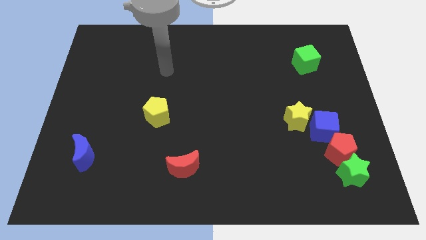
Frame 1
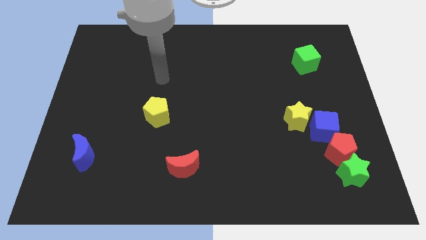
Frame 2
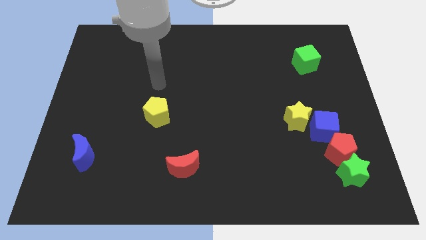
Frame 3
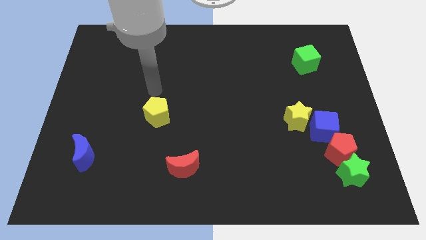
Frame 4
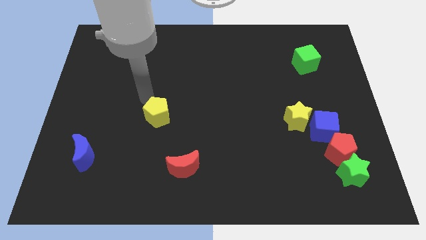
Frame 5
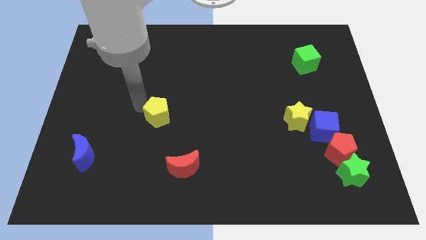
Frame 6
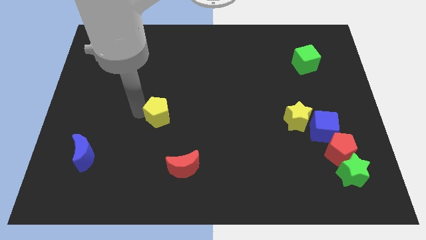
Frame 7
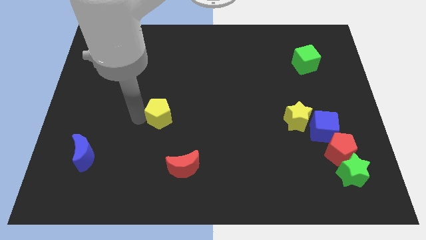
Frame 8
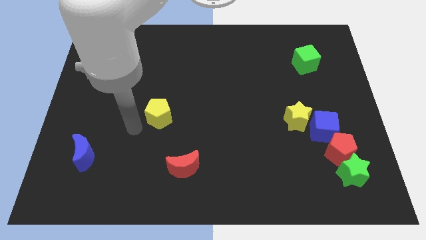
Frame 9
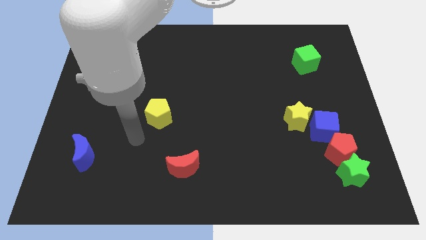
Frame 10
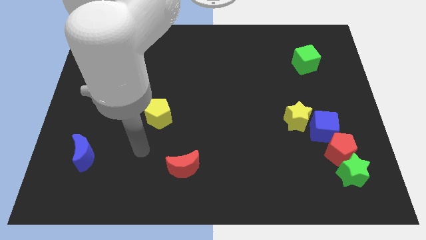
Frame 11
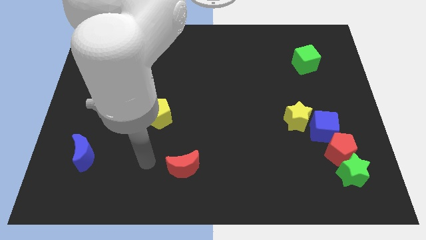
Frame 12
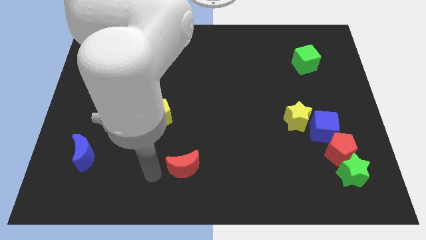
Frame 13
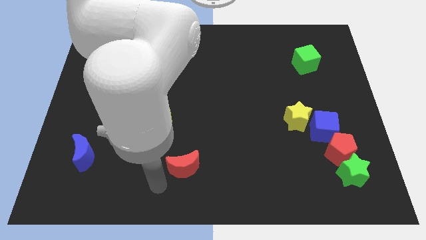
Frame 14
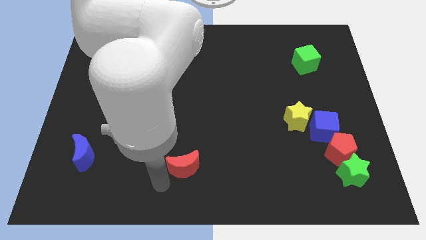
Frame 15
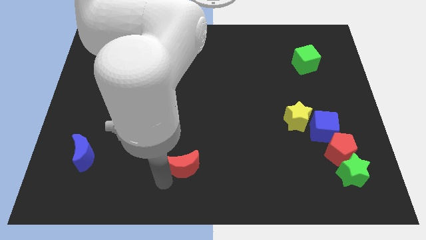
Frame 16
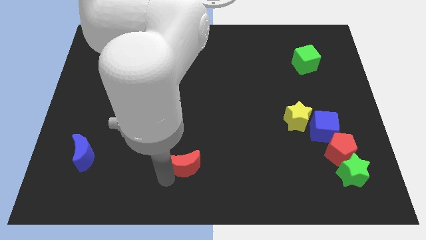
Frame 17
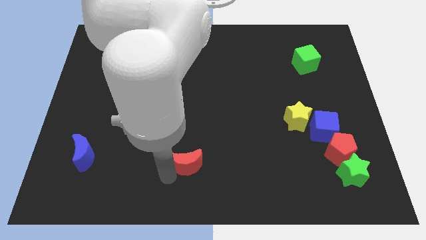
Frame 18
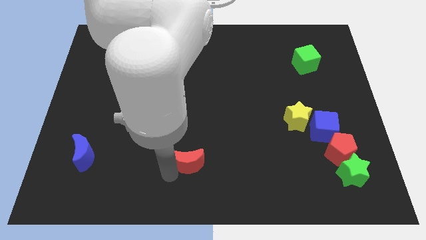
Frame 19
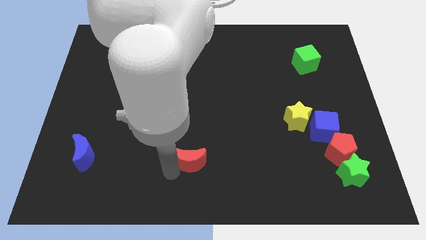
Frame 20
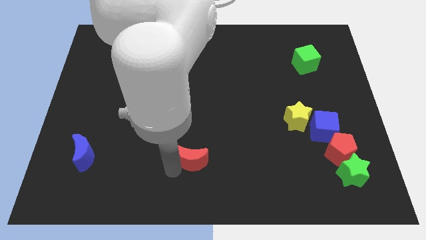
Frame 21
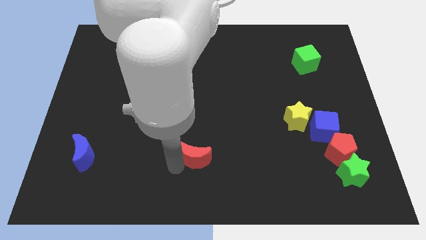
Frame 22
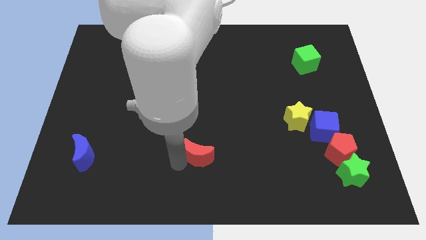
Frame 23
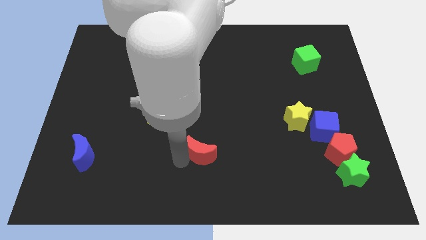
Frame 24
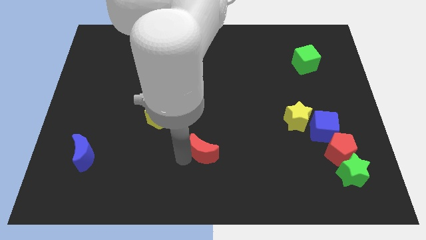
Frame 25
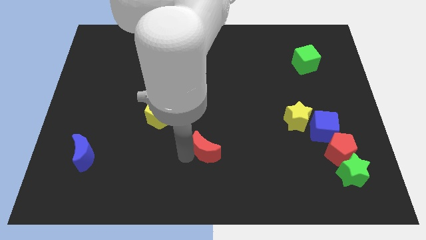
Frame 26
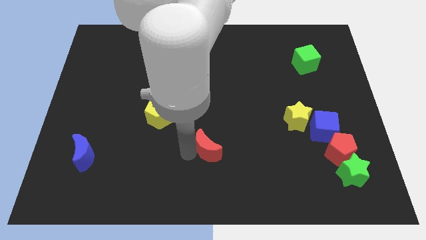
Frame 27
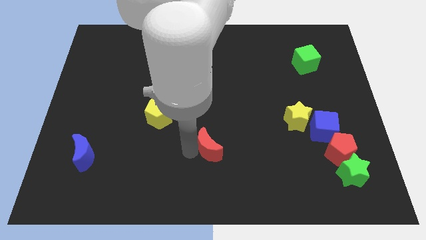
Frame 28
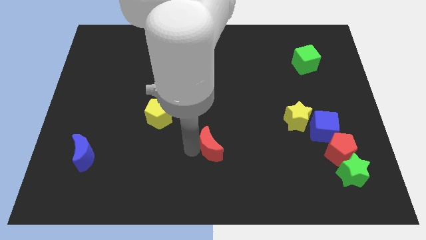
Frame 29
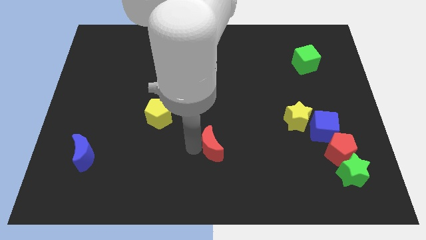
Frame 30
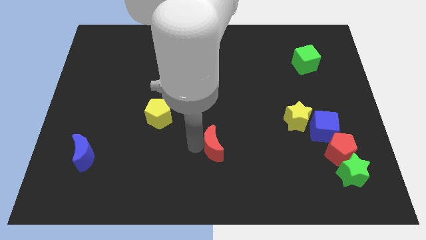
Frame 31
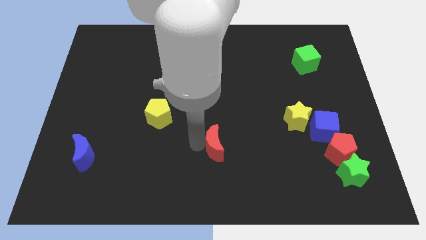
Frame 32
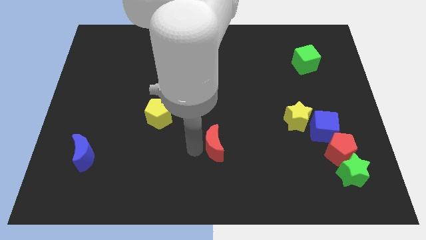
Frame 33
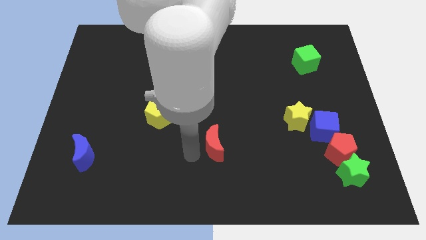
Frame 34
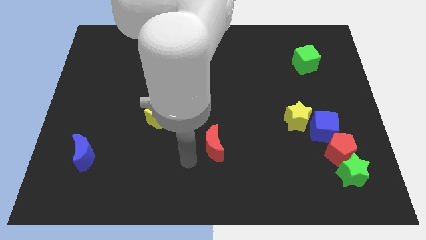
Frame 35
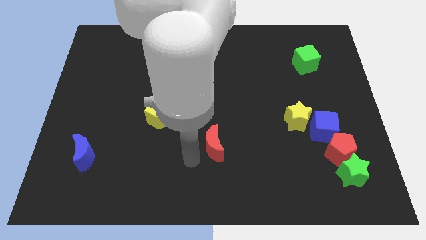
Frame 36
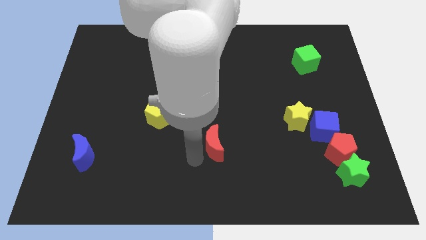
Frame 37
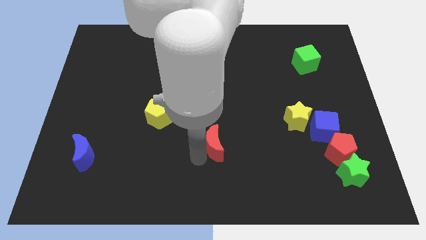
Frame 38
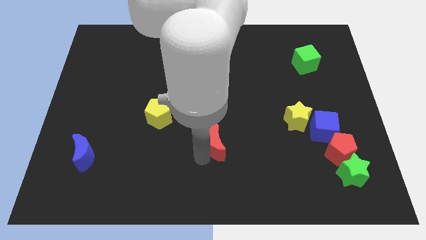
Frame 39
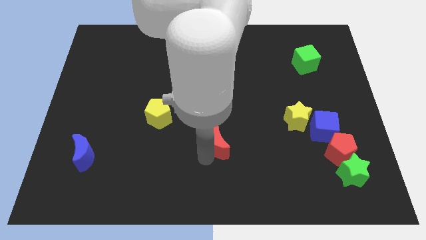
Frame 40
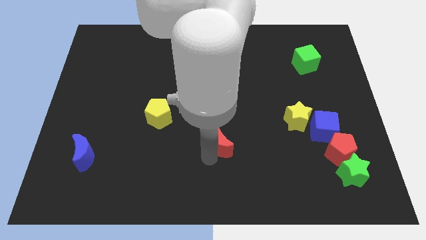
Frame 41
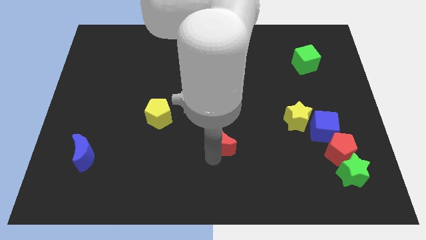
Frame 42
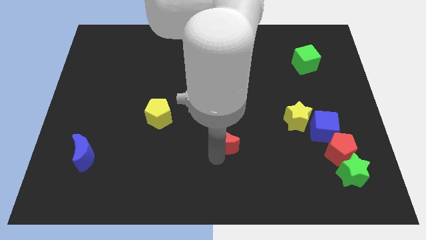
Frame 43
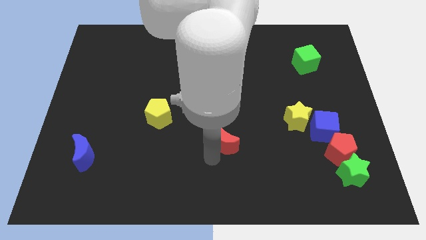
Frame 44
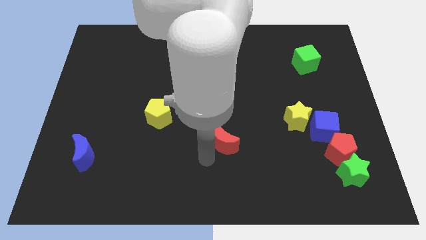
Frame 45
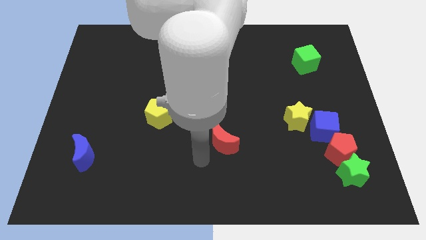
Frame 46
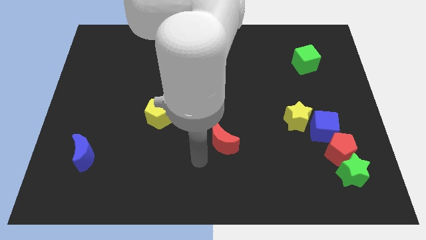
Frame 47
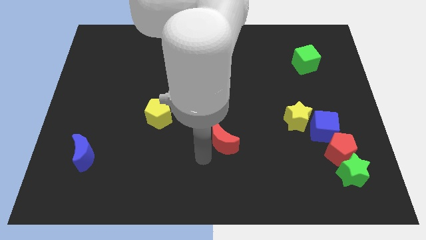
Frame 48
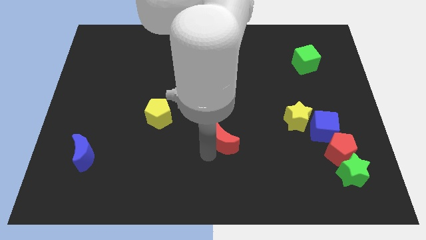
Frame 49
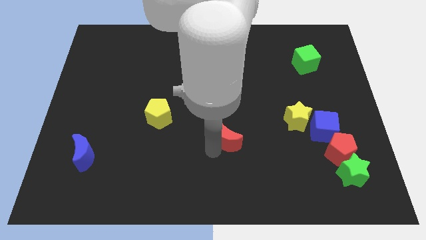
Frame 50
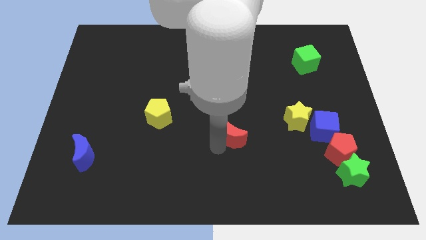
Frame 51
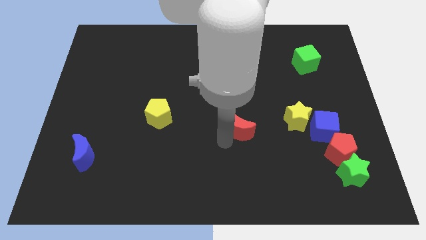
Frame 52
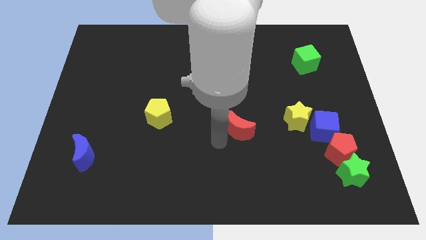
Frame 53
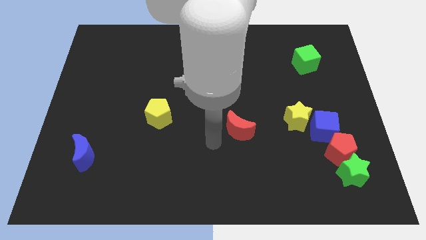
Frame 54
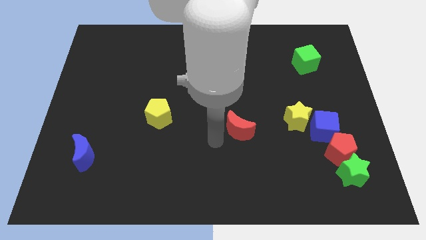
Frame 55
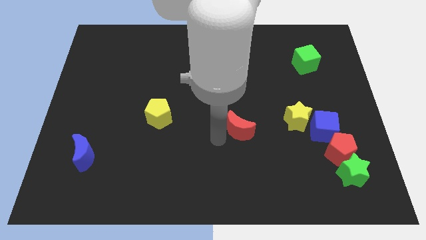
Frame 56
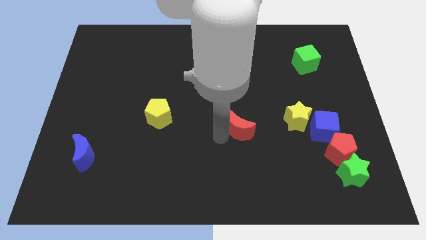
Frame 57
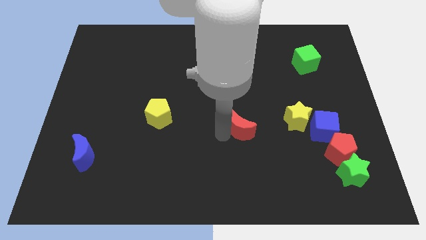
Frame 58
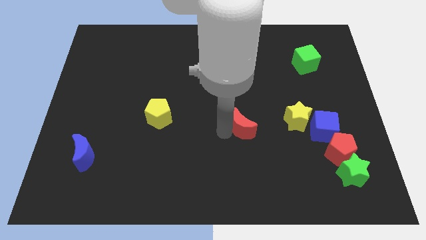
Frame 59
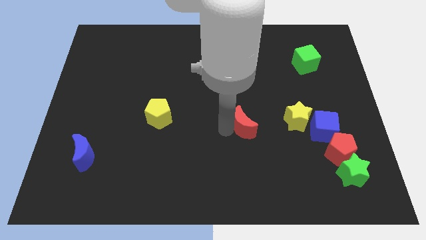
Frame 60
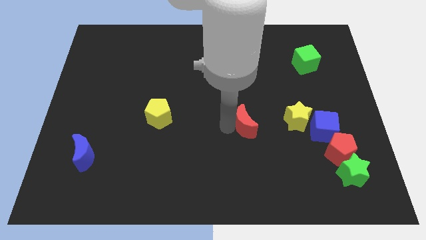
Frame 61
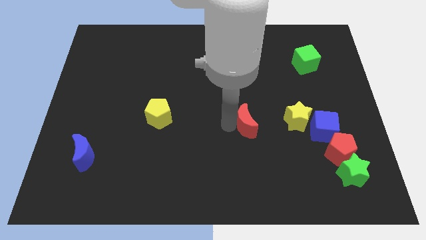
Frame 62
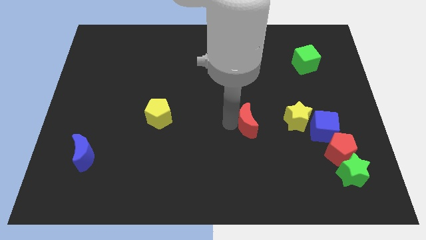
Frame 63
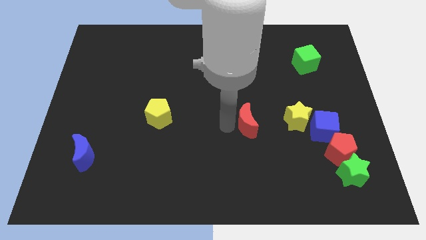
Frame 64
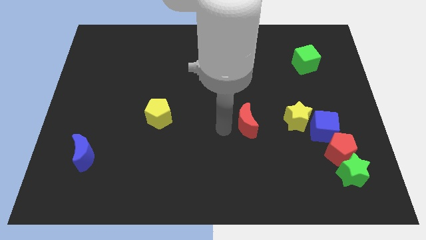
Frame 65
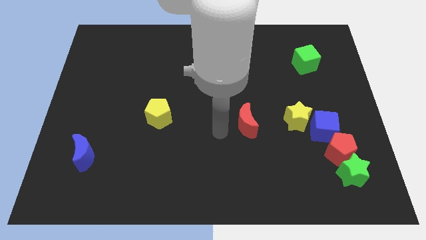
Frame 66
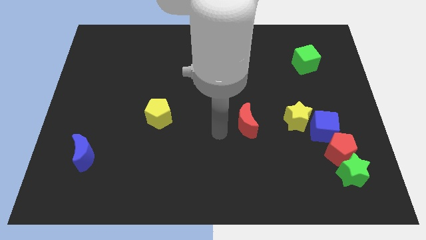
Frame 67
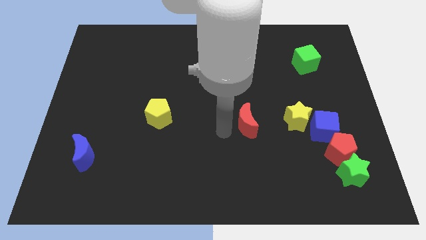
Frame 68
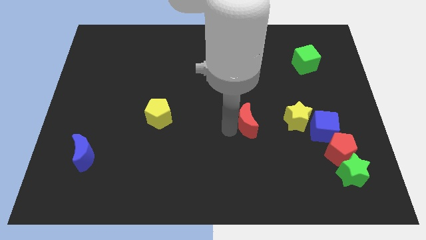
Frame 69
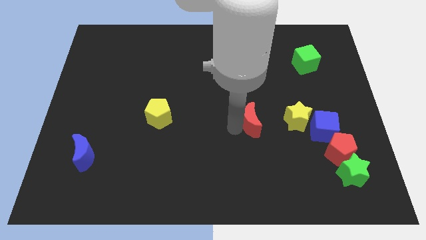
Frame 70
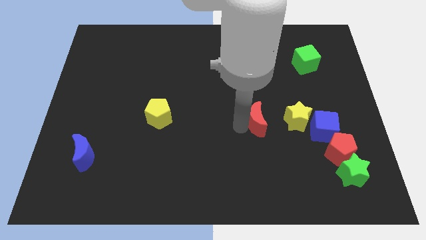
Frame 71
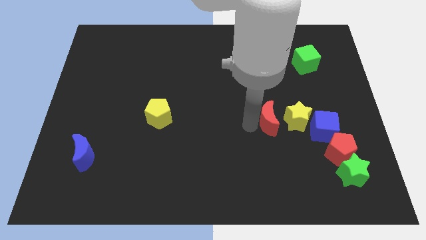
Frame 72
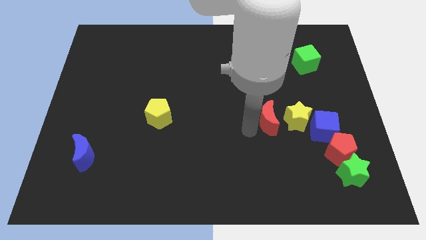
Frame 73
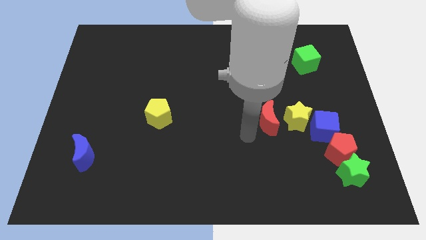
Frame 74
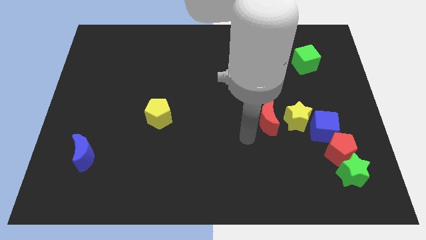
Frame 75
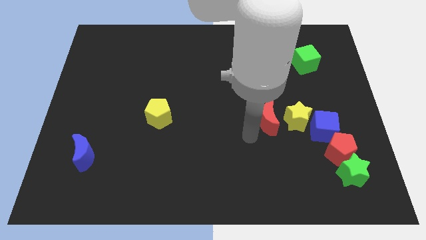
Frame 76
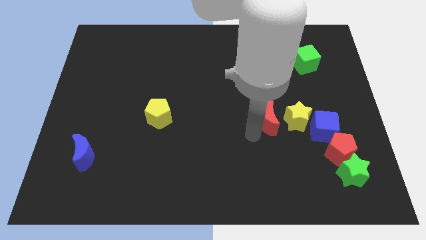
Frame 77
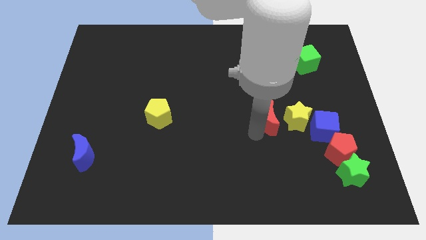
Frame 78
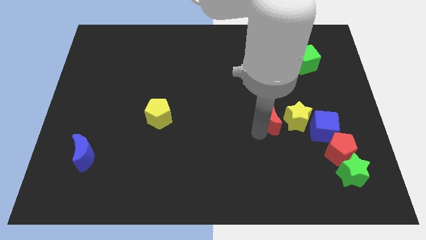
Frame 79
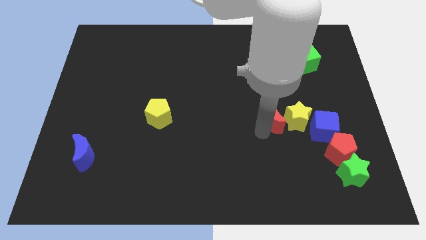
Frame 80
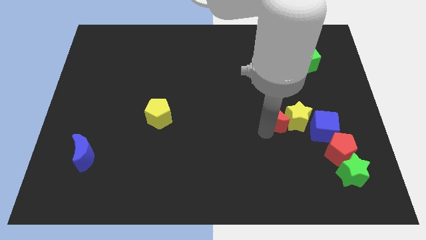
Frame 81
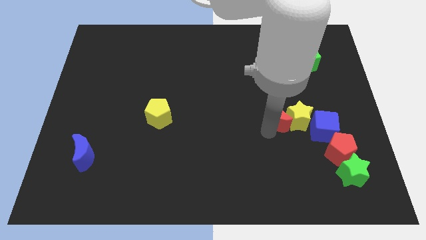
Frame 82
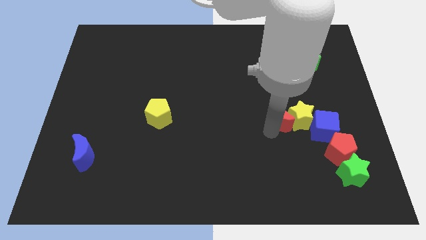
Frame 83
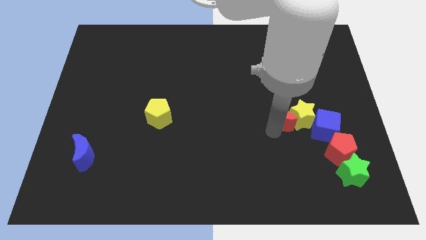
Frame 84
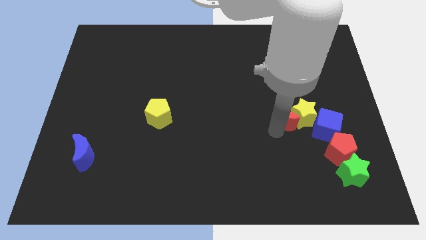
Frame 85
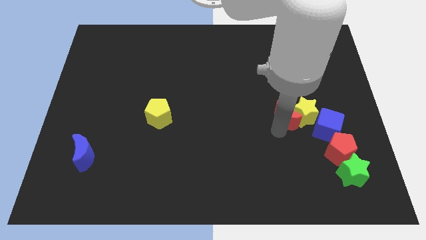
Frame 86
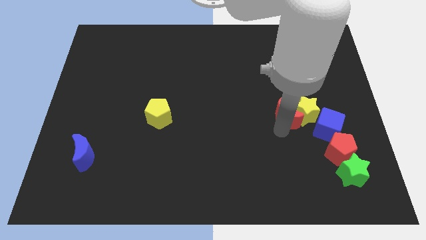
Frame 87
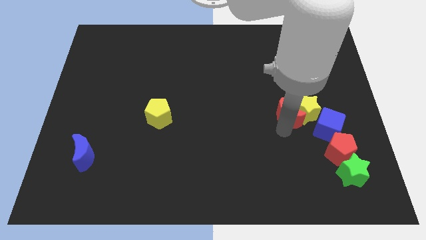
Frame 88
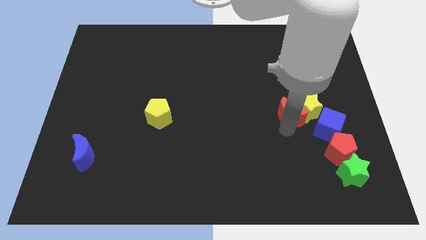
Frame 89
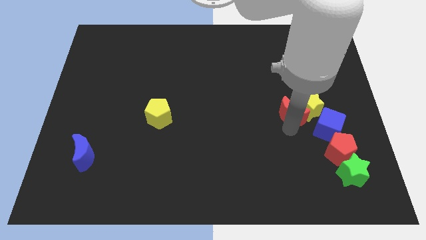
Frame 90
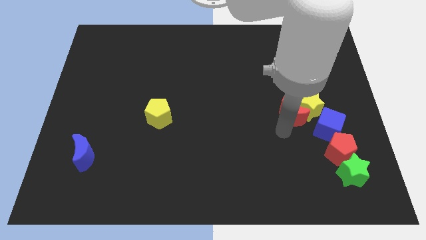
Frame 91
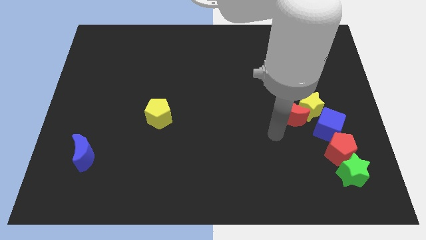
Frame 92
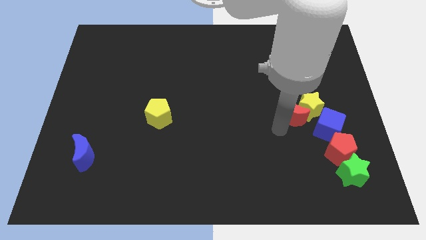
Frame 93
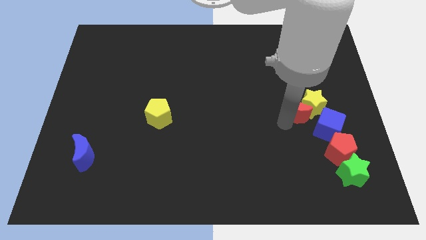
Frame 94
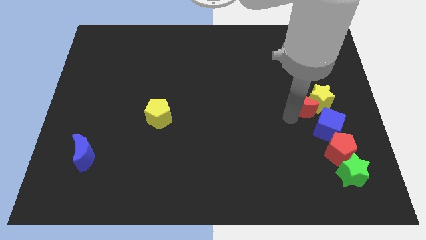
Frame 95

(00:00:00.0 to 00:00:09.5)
put the red moon below the green cube
